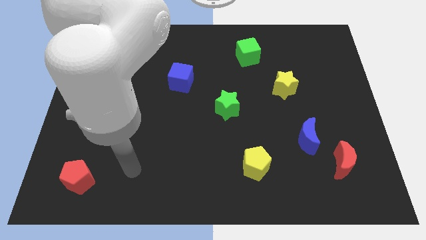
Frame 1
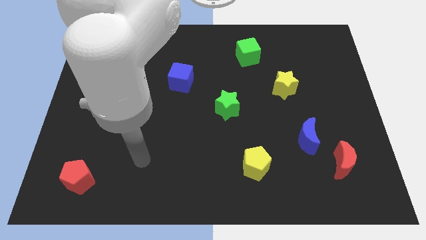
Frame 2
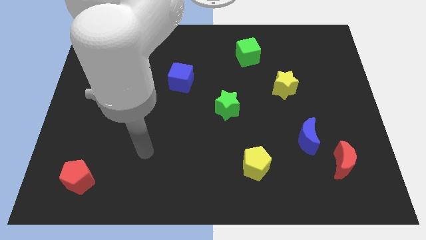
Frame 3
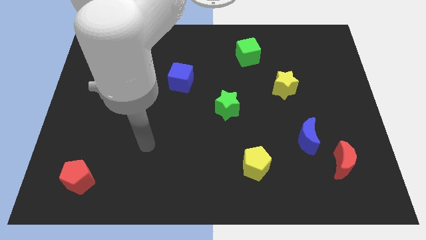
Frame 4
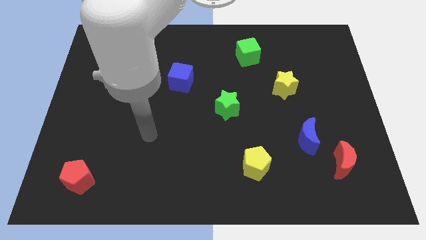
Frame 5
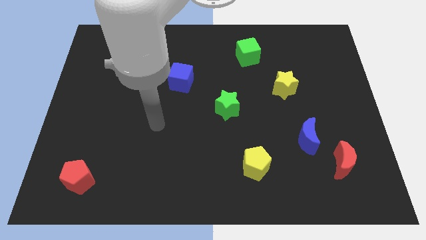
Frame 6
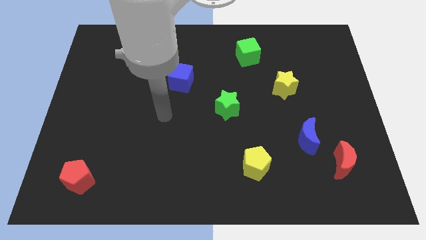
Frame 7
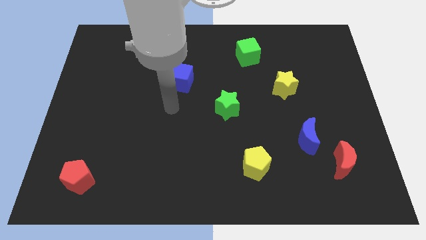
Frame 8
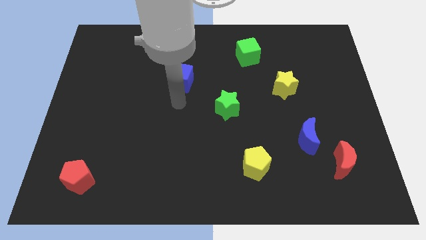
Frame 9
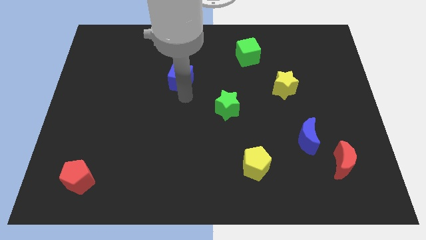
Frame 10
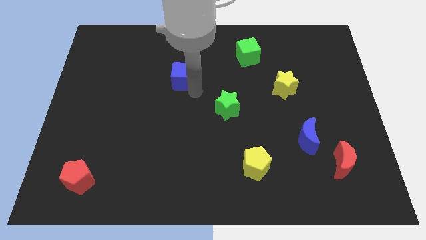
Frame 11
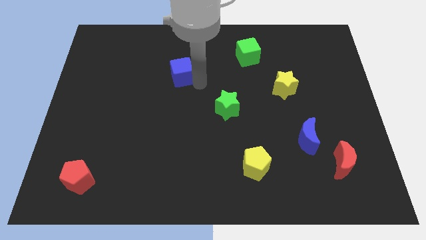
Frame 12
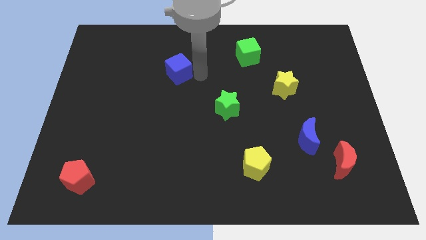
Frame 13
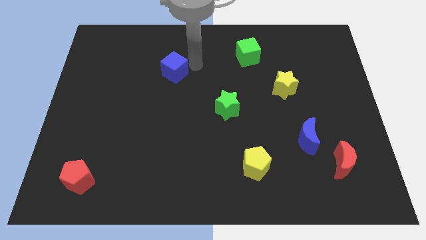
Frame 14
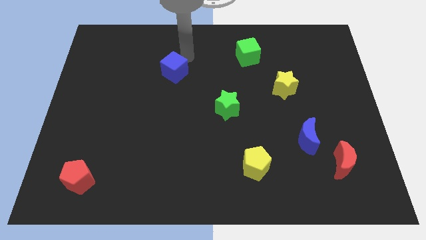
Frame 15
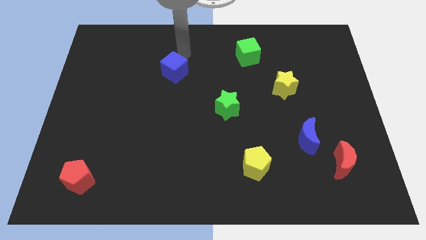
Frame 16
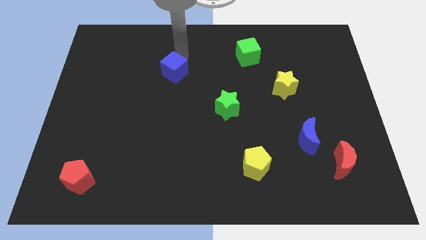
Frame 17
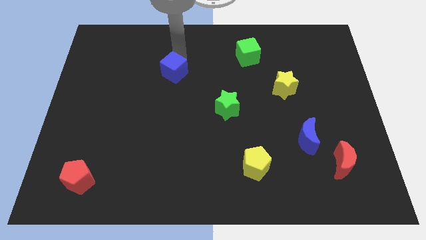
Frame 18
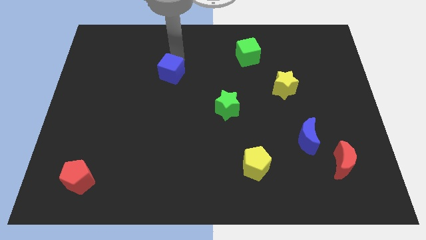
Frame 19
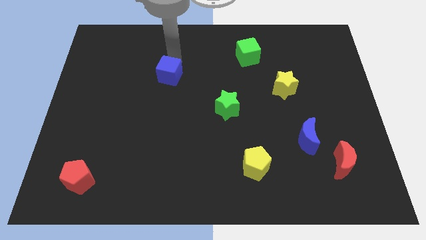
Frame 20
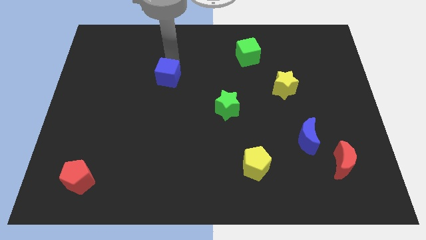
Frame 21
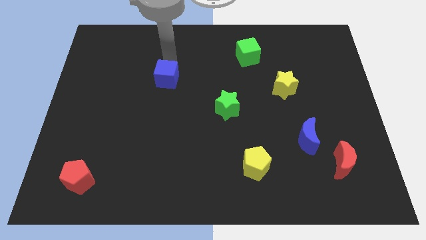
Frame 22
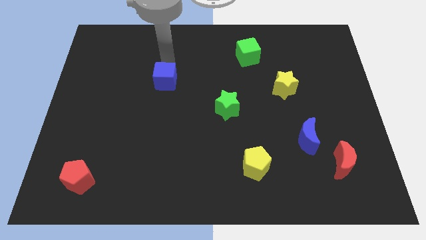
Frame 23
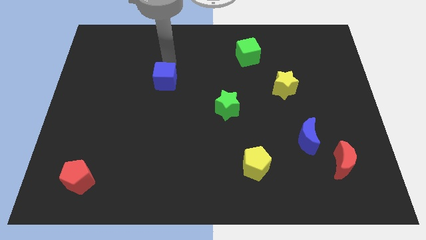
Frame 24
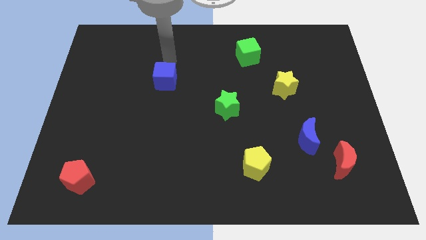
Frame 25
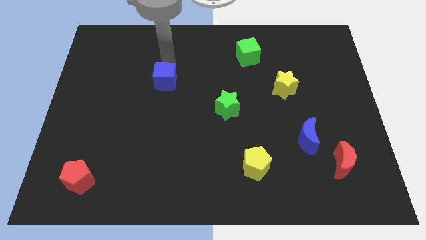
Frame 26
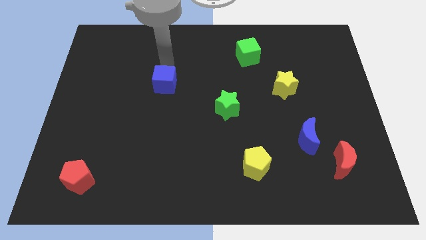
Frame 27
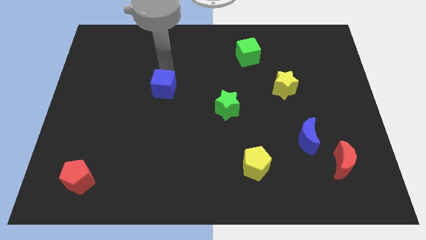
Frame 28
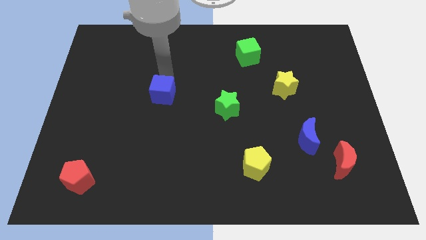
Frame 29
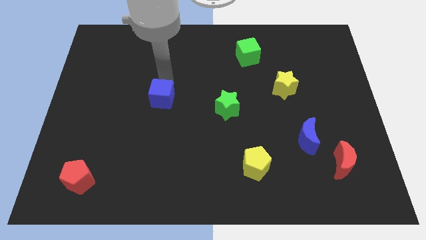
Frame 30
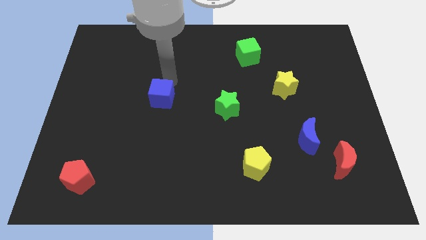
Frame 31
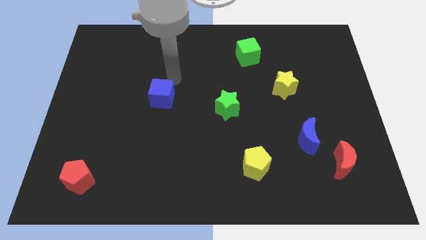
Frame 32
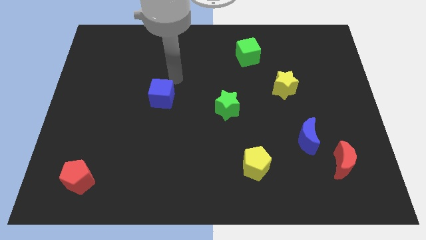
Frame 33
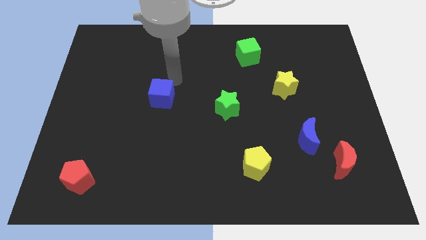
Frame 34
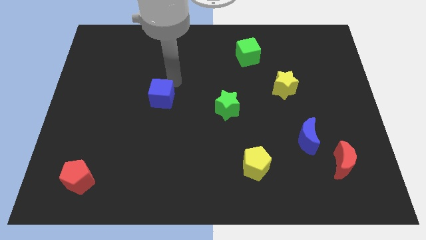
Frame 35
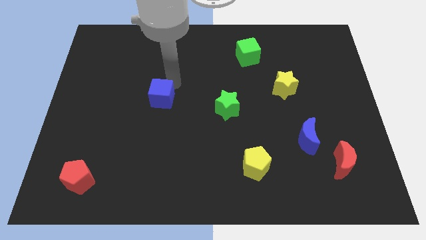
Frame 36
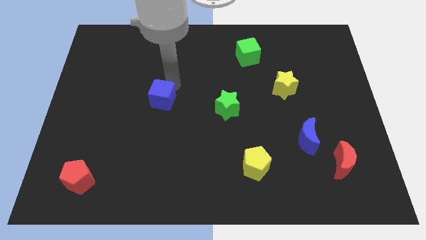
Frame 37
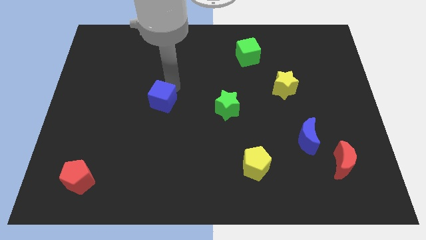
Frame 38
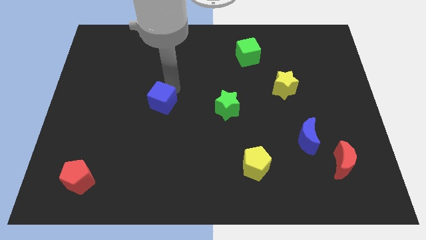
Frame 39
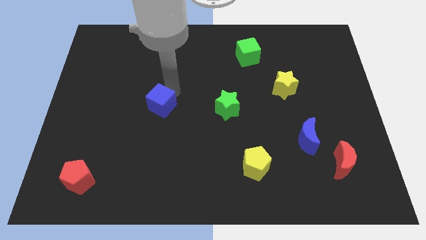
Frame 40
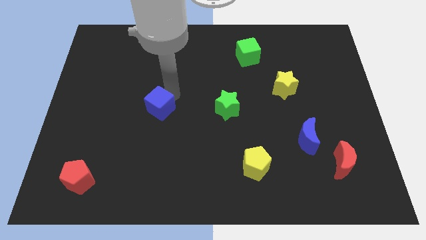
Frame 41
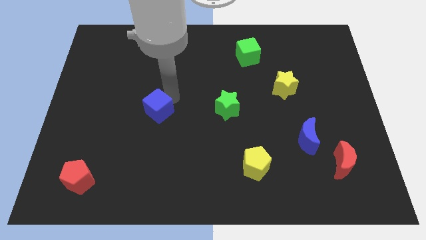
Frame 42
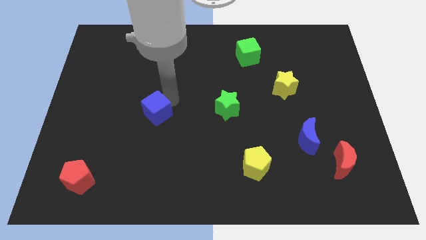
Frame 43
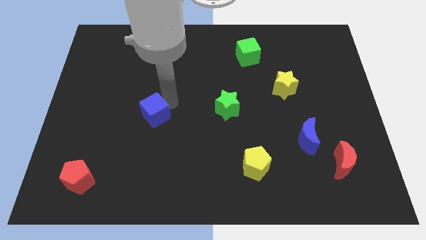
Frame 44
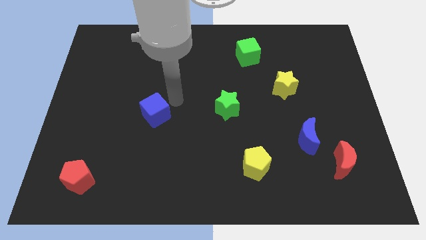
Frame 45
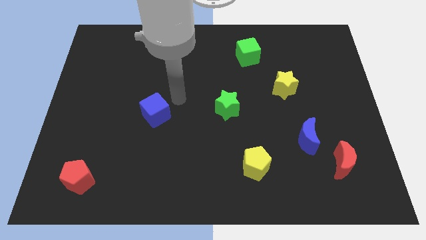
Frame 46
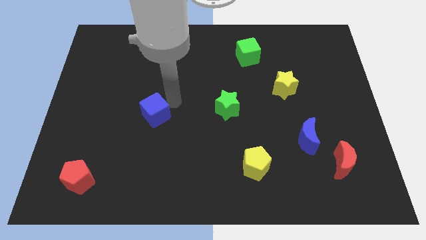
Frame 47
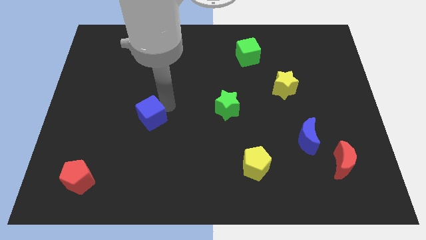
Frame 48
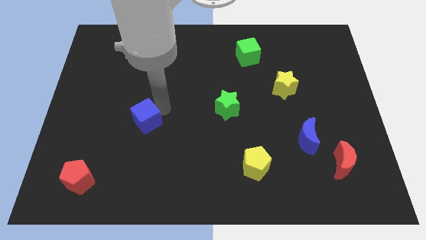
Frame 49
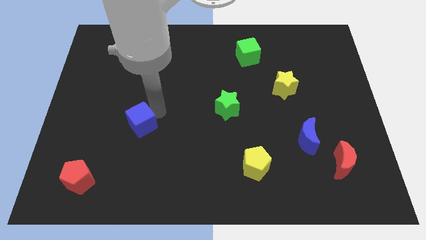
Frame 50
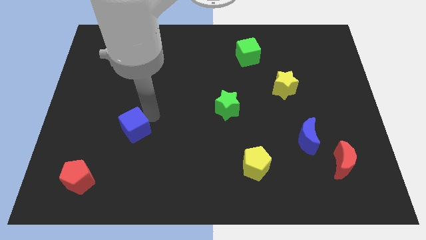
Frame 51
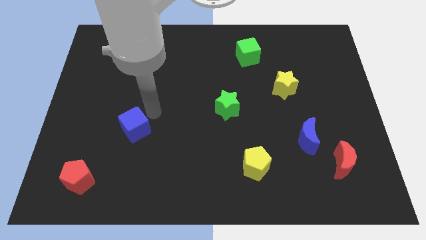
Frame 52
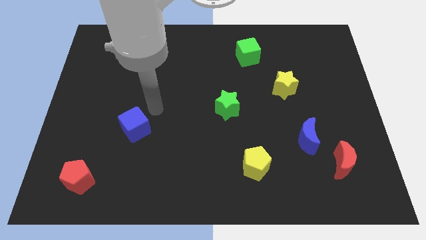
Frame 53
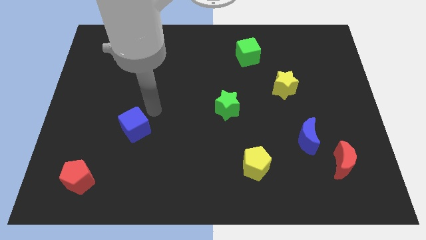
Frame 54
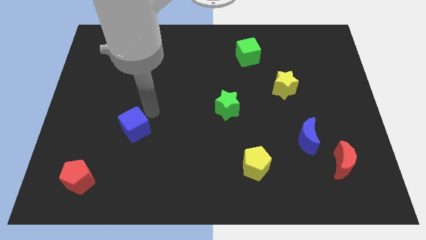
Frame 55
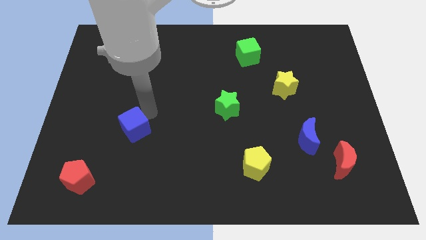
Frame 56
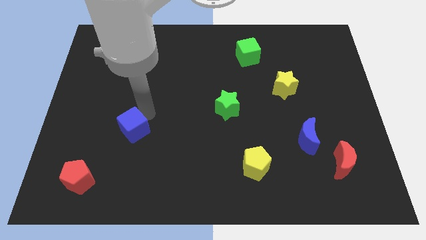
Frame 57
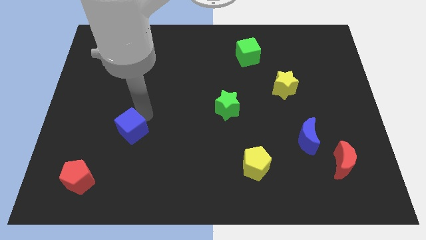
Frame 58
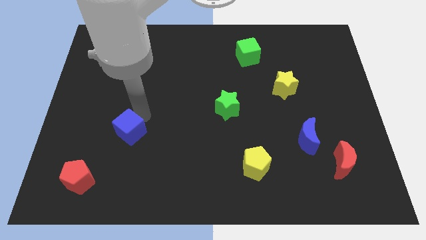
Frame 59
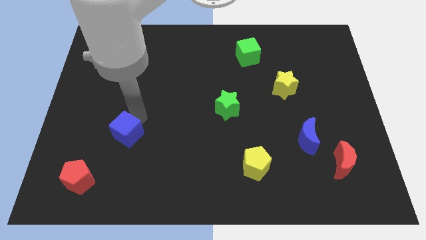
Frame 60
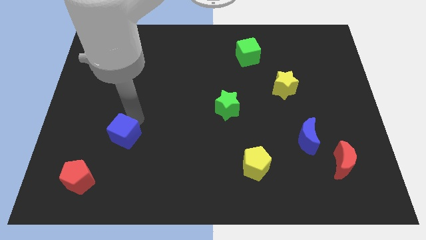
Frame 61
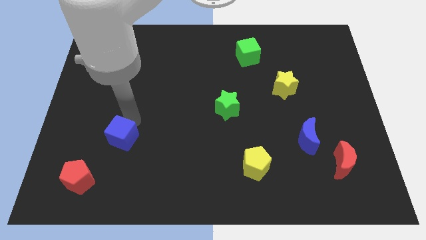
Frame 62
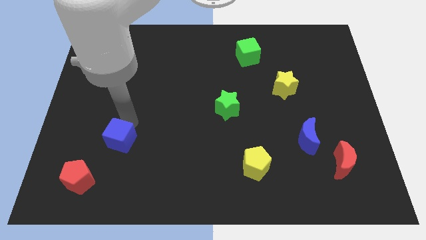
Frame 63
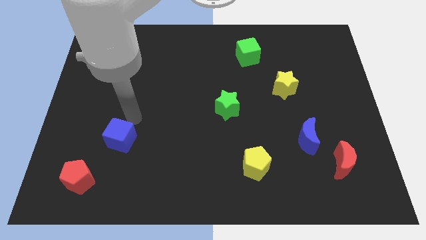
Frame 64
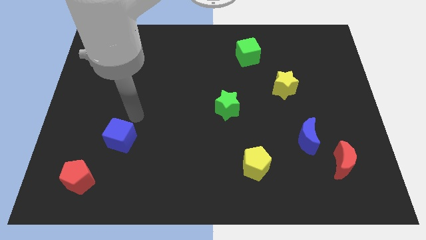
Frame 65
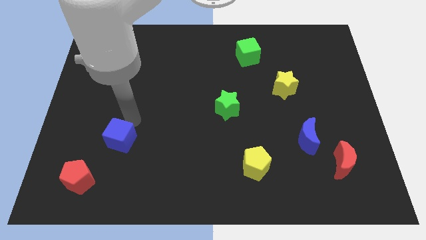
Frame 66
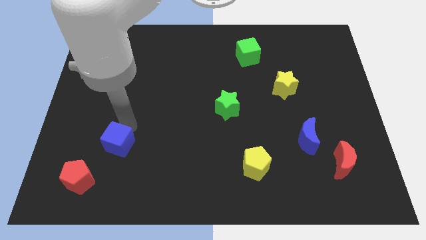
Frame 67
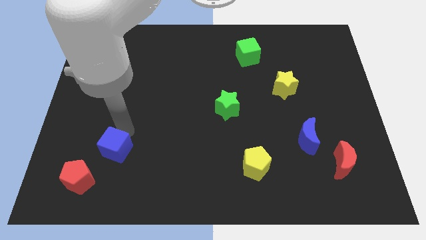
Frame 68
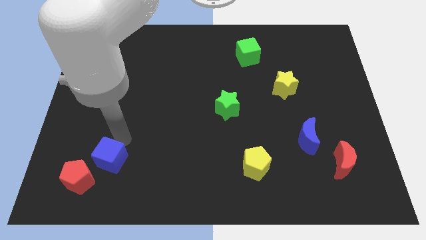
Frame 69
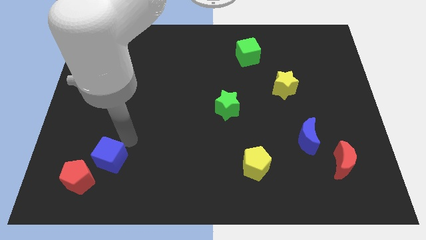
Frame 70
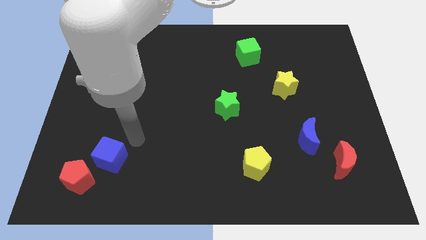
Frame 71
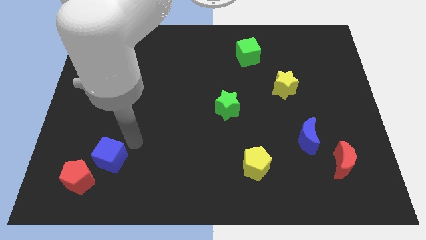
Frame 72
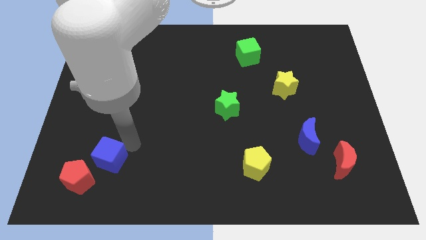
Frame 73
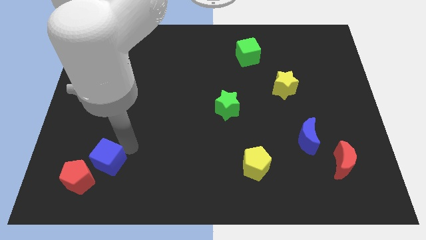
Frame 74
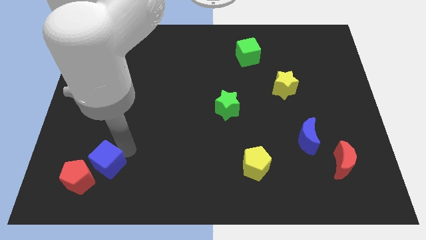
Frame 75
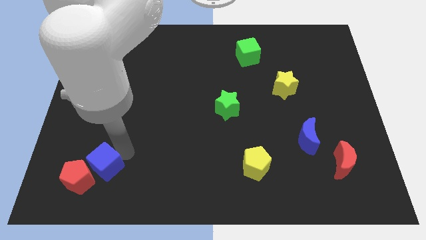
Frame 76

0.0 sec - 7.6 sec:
move the blue cube towards the red pentagon
